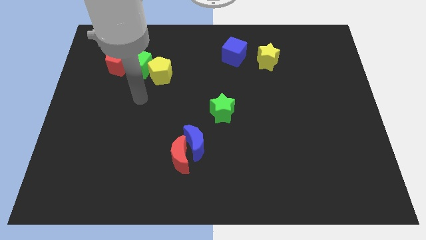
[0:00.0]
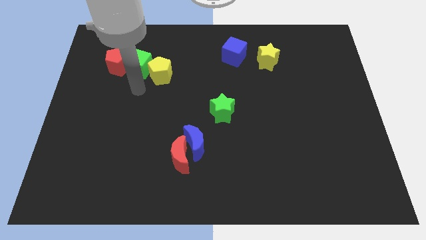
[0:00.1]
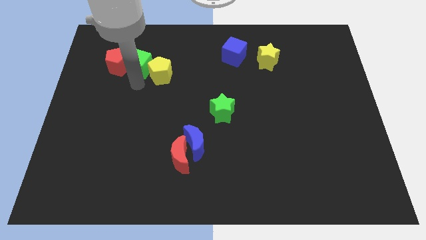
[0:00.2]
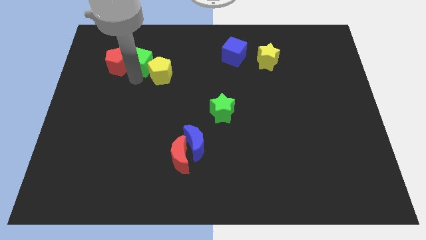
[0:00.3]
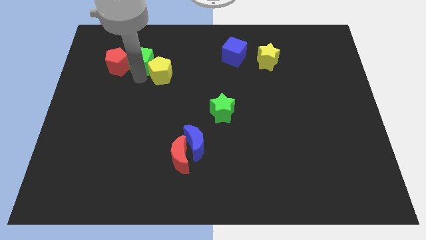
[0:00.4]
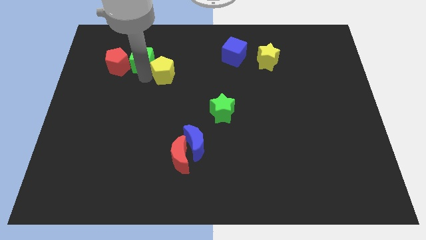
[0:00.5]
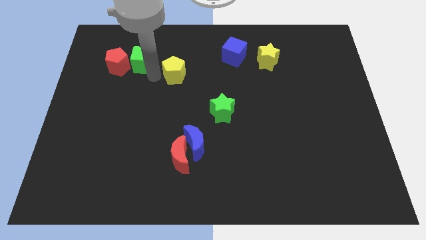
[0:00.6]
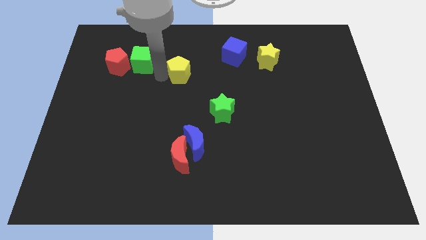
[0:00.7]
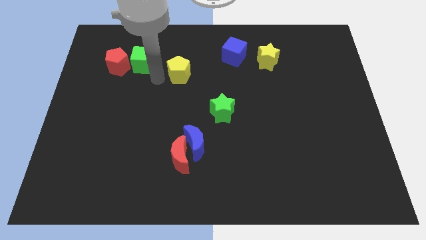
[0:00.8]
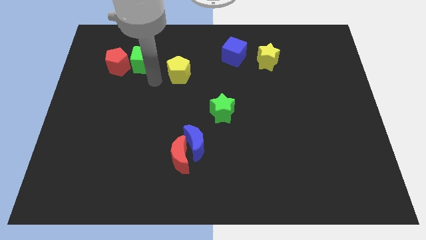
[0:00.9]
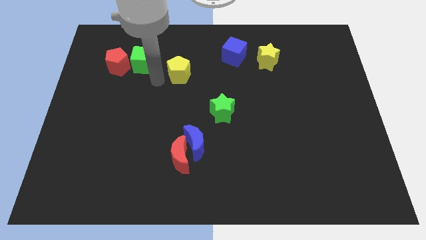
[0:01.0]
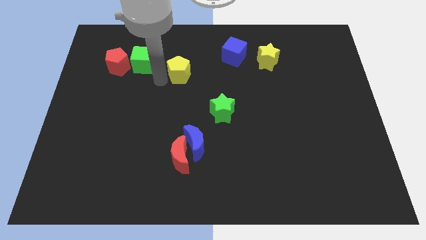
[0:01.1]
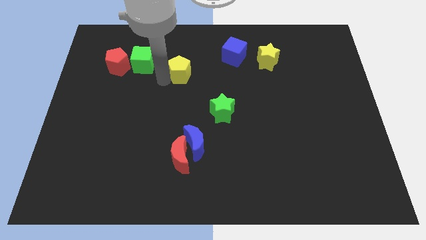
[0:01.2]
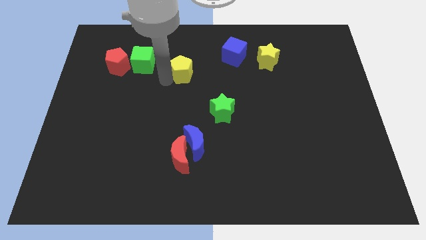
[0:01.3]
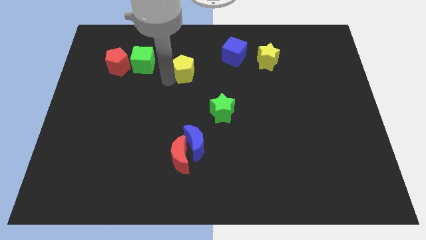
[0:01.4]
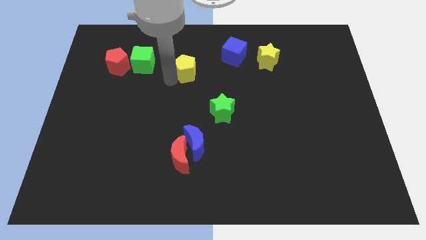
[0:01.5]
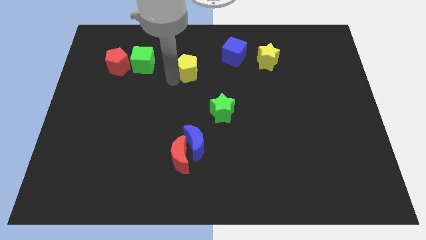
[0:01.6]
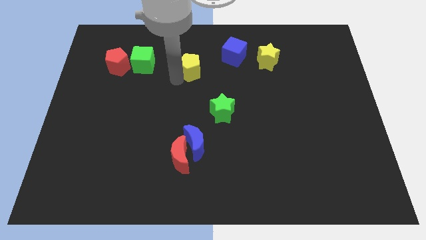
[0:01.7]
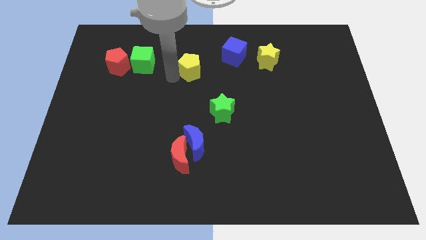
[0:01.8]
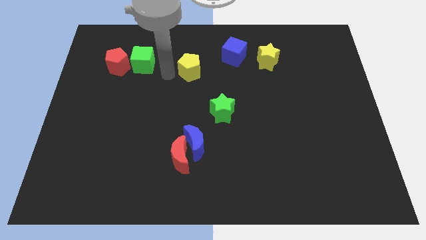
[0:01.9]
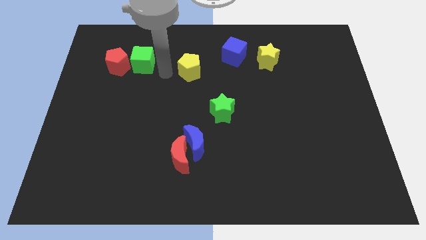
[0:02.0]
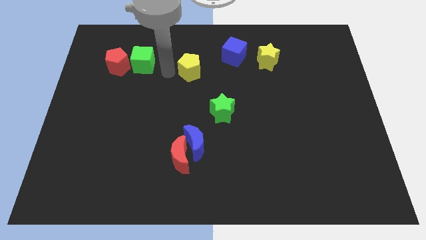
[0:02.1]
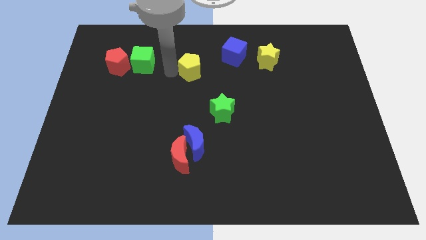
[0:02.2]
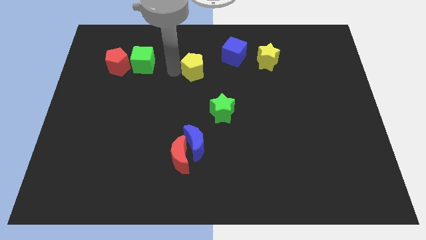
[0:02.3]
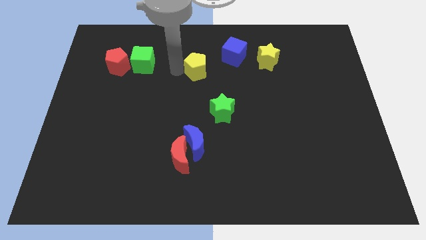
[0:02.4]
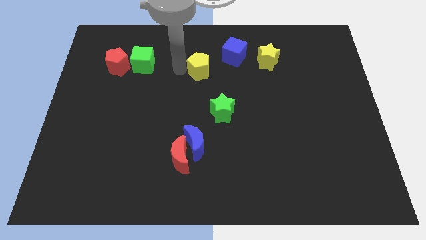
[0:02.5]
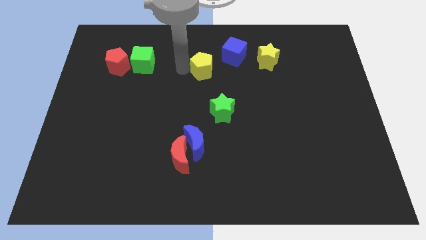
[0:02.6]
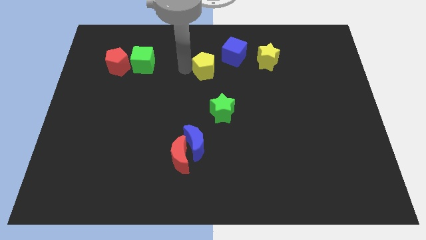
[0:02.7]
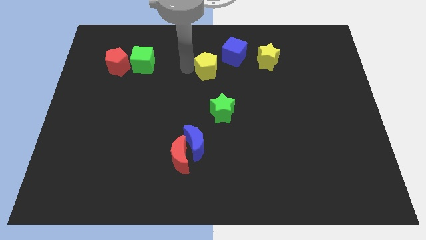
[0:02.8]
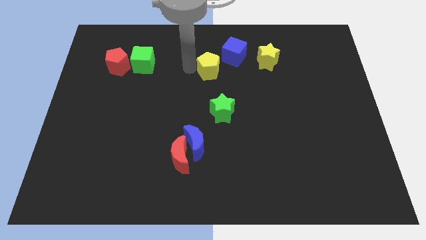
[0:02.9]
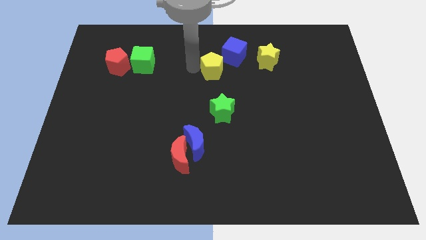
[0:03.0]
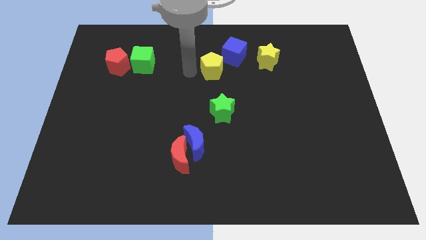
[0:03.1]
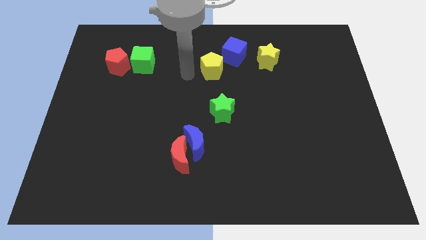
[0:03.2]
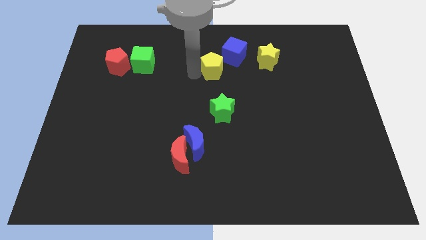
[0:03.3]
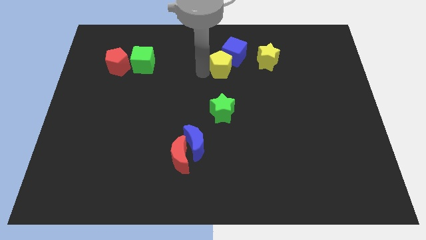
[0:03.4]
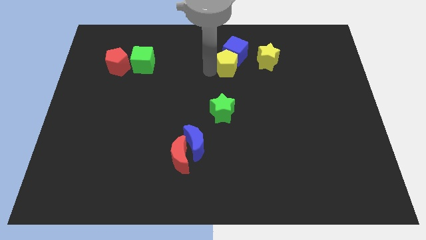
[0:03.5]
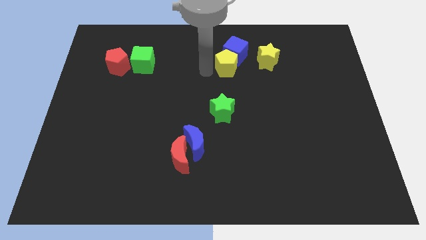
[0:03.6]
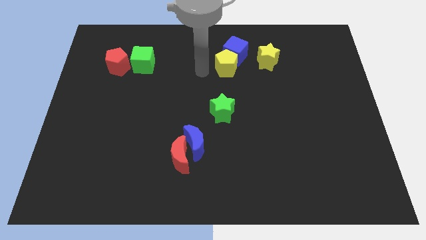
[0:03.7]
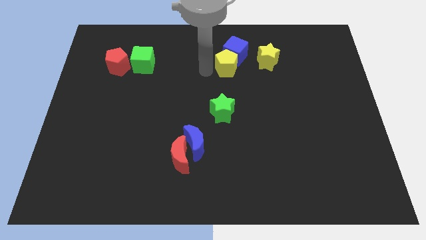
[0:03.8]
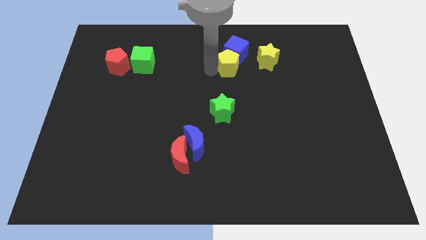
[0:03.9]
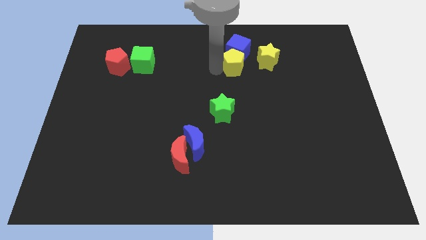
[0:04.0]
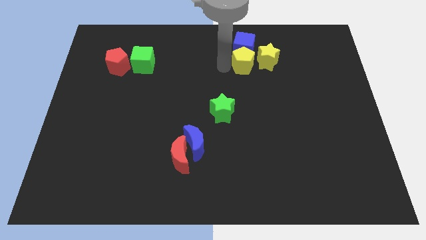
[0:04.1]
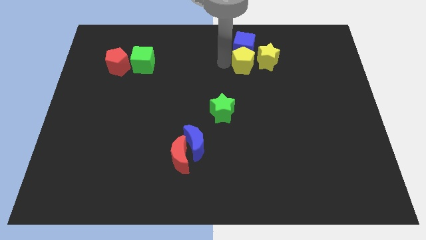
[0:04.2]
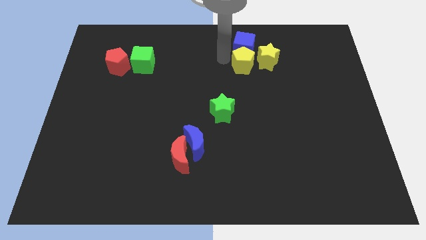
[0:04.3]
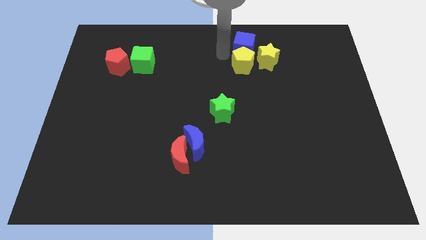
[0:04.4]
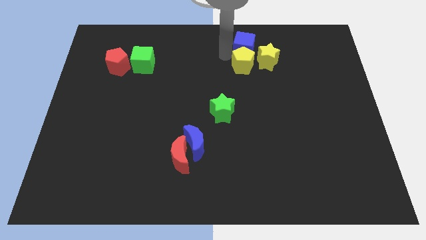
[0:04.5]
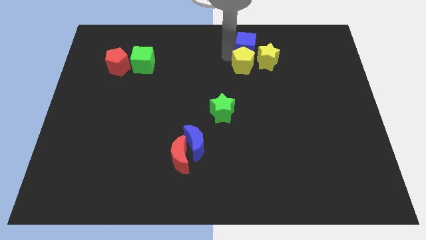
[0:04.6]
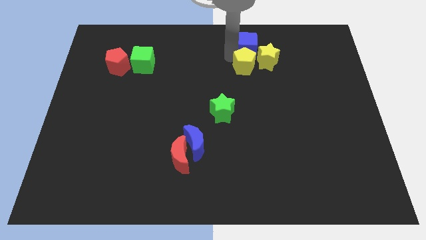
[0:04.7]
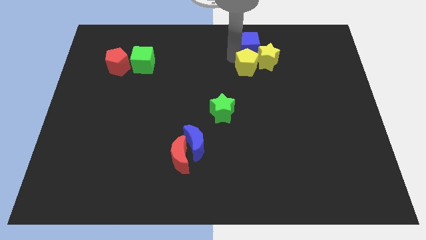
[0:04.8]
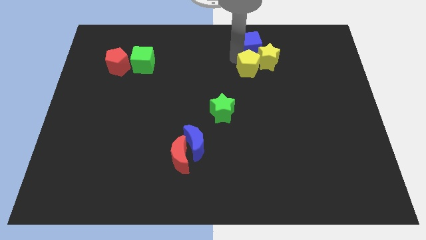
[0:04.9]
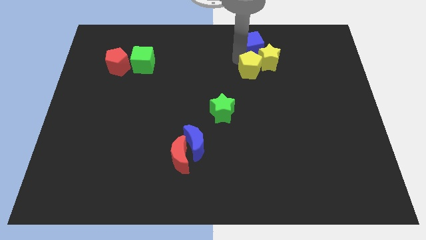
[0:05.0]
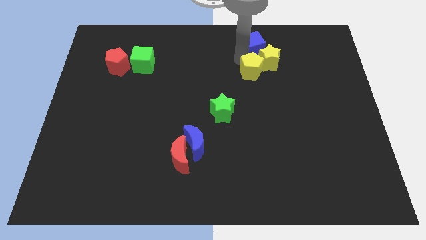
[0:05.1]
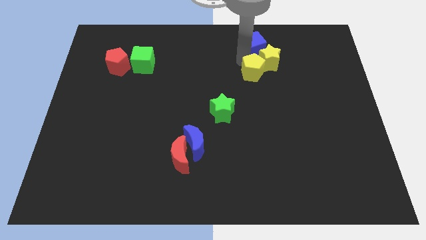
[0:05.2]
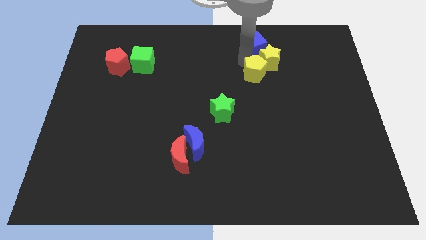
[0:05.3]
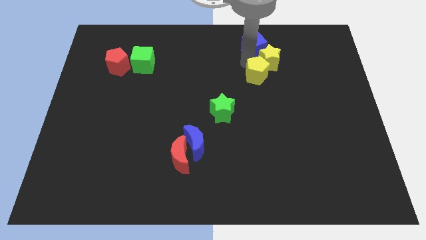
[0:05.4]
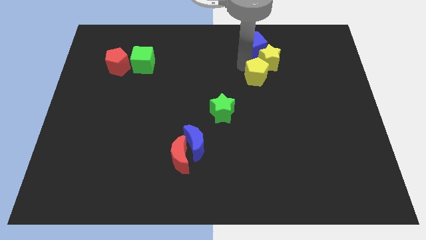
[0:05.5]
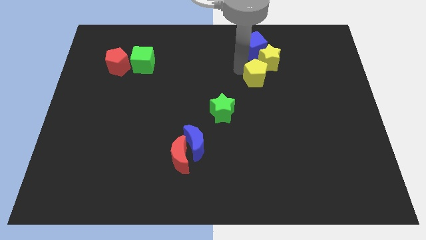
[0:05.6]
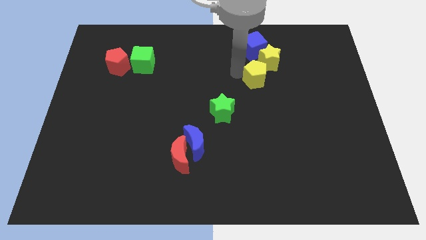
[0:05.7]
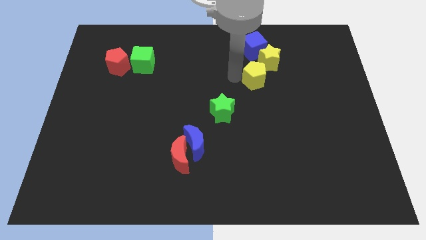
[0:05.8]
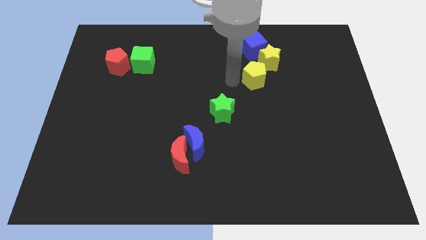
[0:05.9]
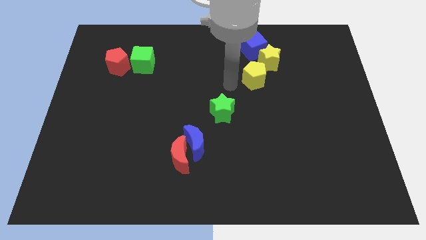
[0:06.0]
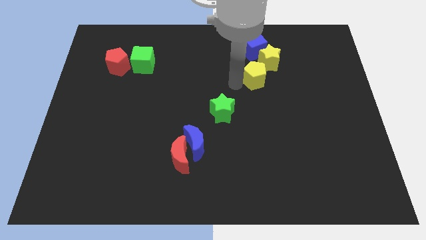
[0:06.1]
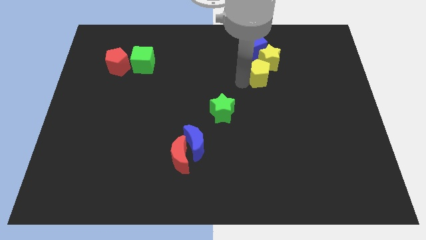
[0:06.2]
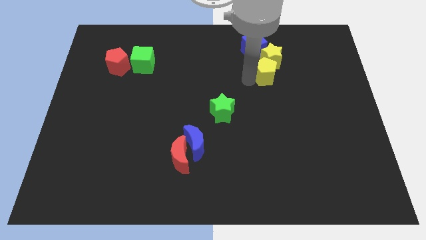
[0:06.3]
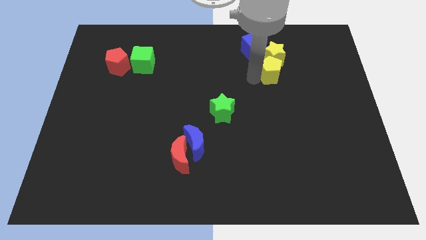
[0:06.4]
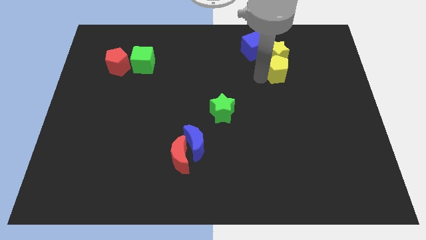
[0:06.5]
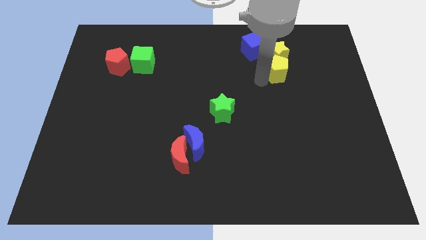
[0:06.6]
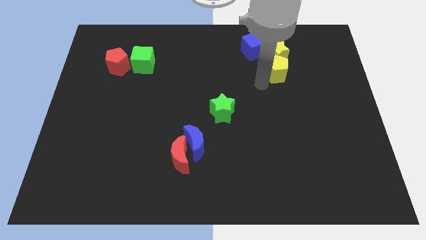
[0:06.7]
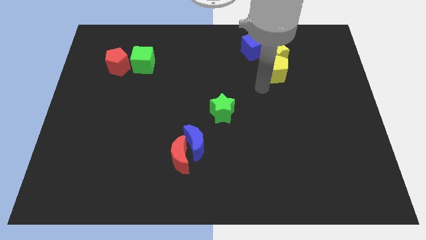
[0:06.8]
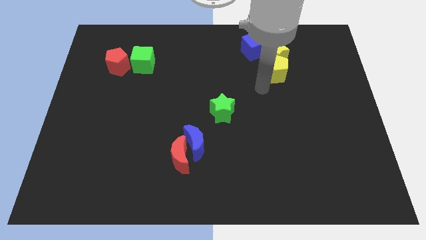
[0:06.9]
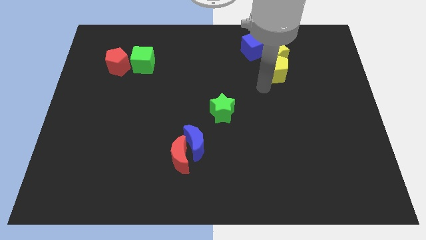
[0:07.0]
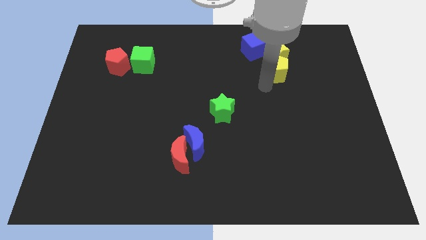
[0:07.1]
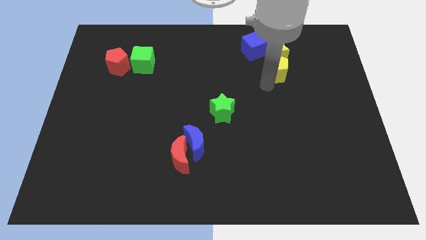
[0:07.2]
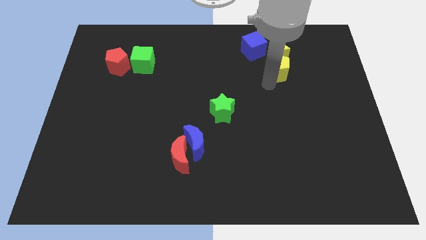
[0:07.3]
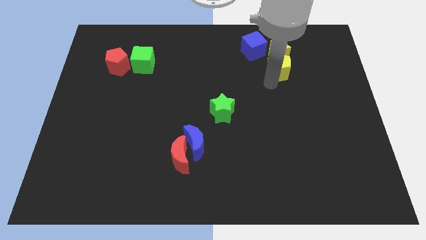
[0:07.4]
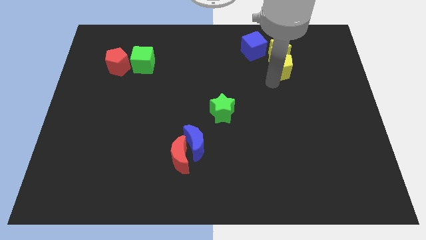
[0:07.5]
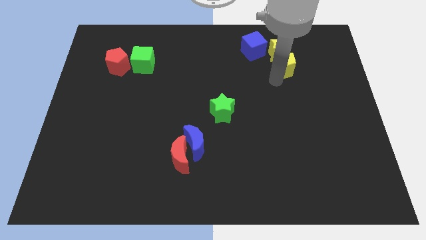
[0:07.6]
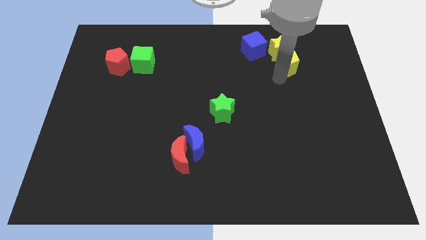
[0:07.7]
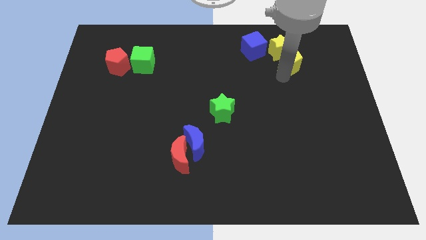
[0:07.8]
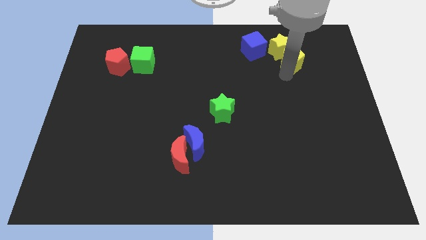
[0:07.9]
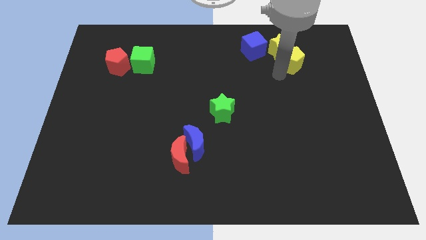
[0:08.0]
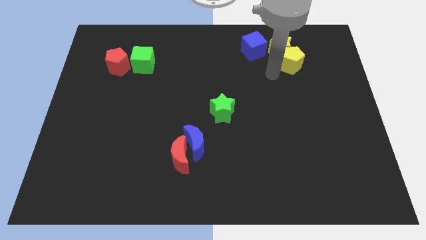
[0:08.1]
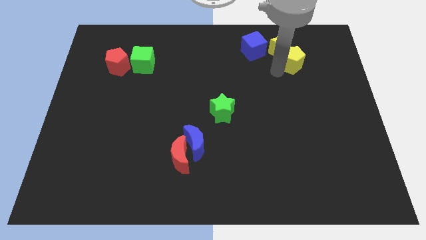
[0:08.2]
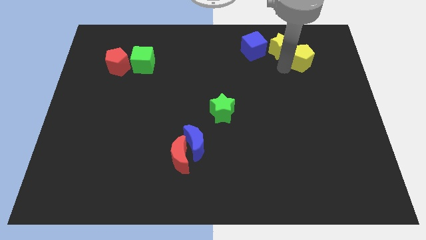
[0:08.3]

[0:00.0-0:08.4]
put the yellow pentagon to the right side of the yellow star
